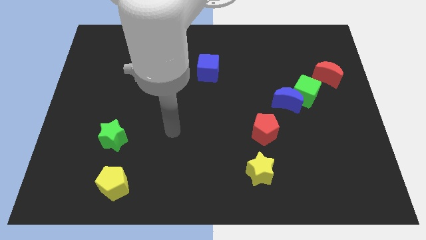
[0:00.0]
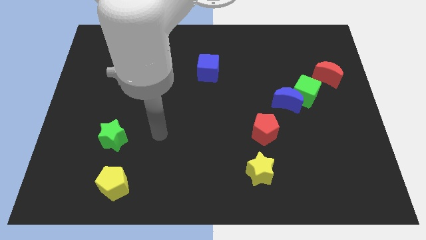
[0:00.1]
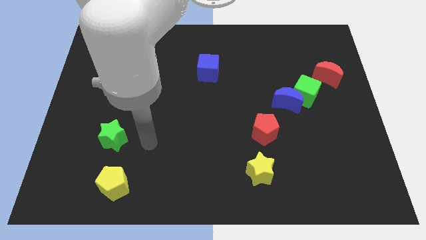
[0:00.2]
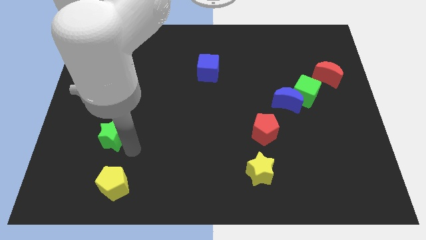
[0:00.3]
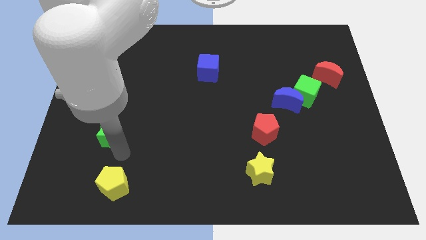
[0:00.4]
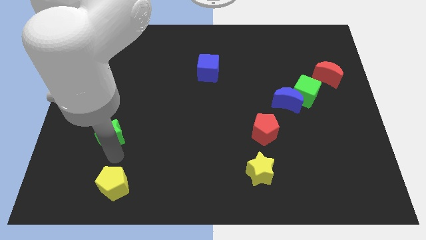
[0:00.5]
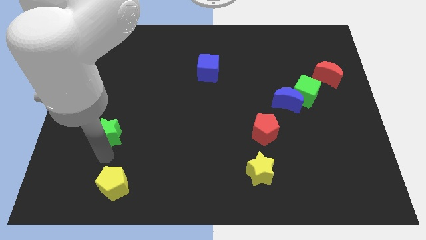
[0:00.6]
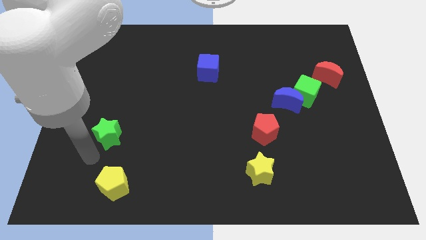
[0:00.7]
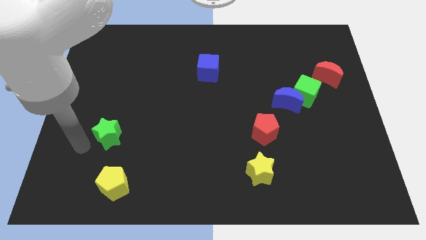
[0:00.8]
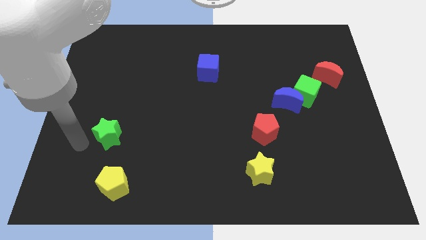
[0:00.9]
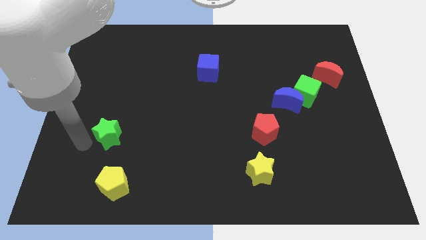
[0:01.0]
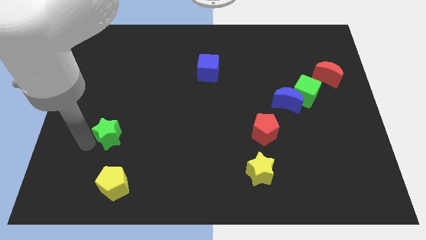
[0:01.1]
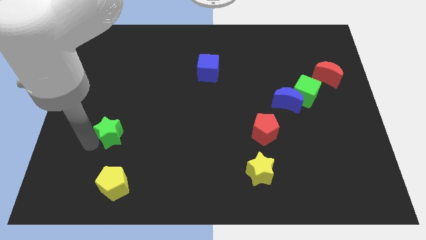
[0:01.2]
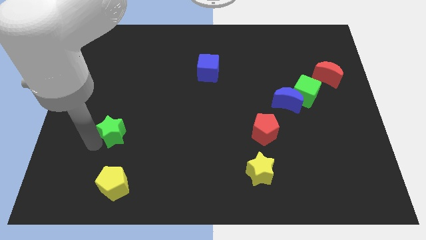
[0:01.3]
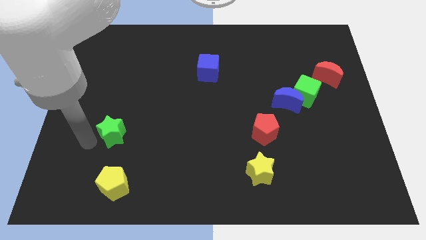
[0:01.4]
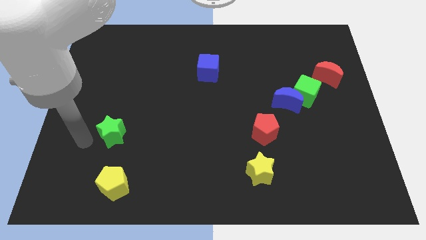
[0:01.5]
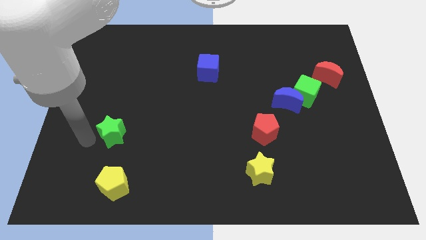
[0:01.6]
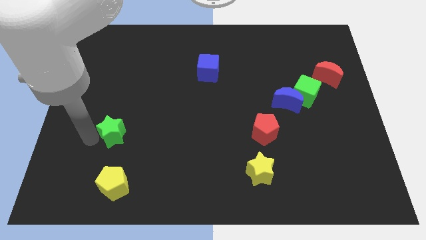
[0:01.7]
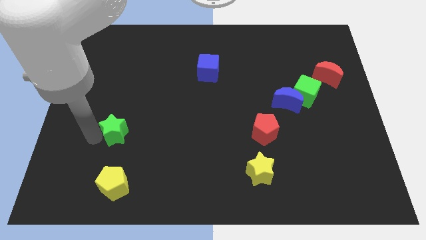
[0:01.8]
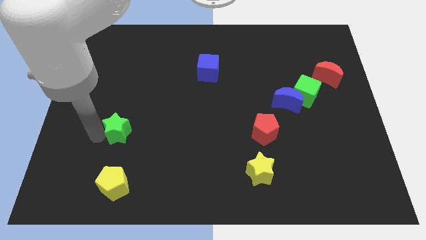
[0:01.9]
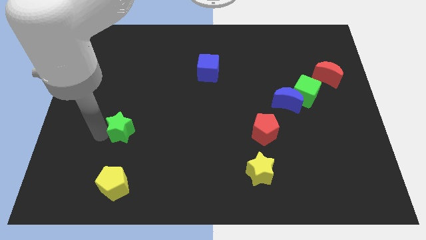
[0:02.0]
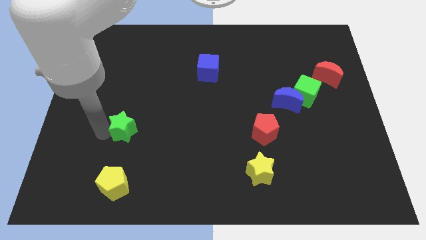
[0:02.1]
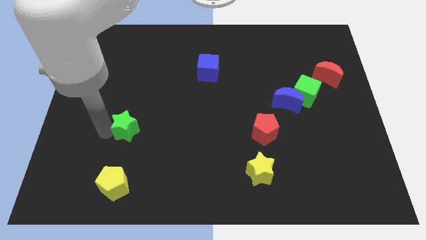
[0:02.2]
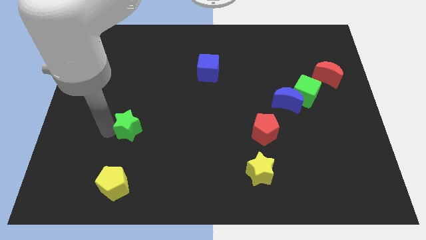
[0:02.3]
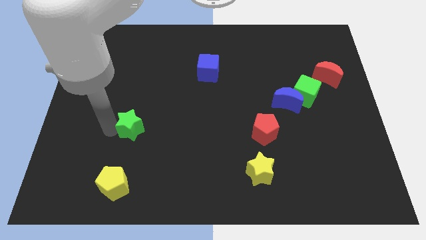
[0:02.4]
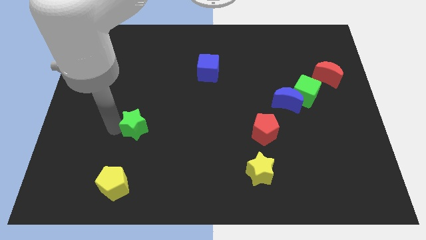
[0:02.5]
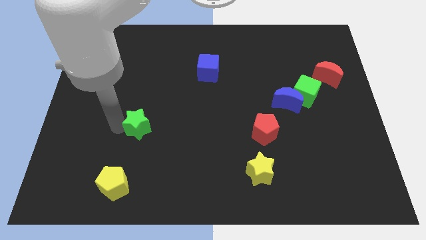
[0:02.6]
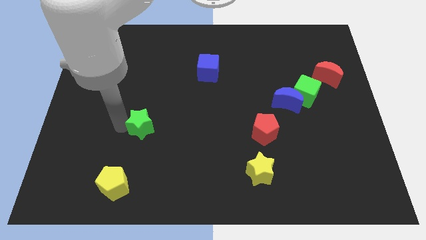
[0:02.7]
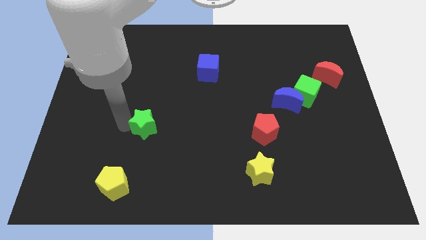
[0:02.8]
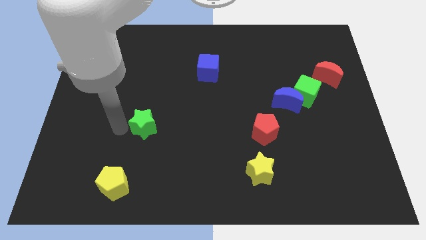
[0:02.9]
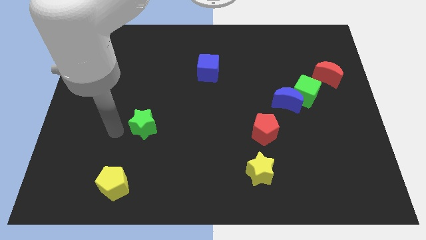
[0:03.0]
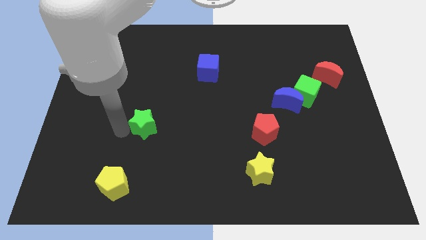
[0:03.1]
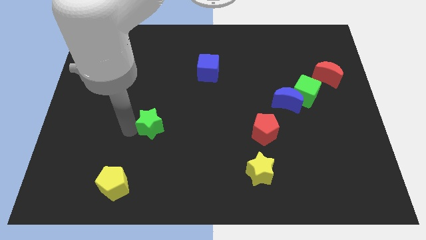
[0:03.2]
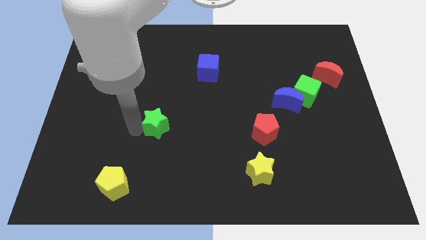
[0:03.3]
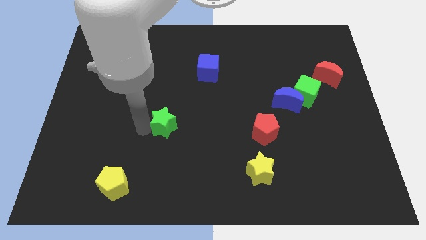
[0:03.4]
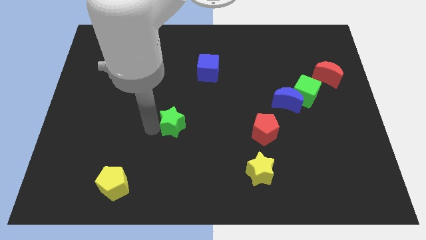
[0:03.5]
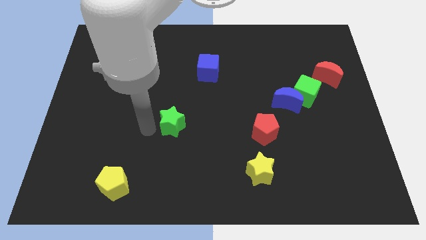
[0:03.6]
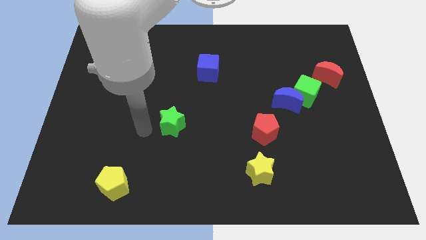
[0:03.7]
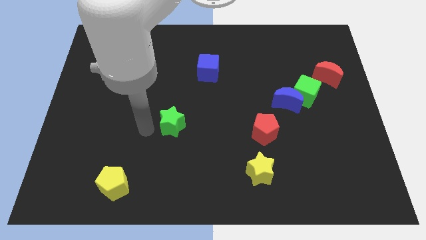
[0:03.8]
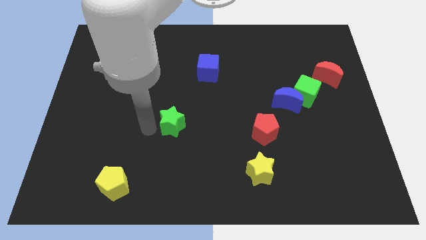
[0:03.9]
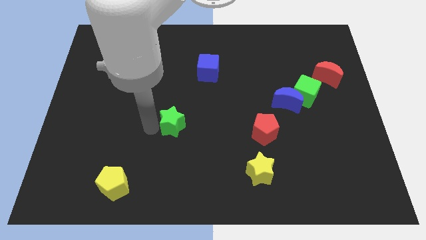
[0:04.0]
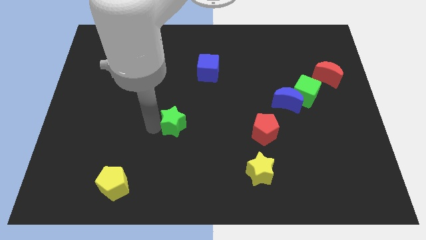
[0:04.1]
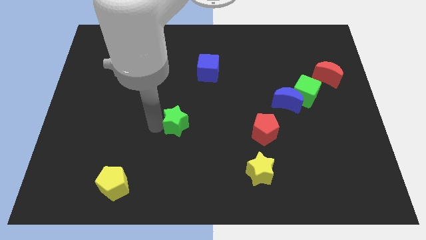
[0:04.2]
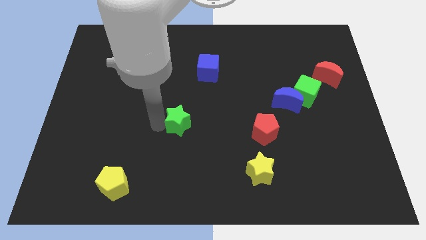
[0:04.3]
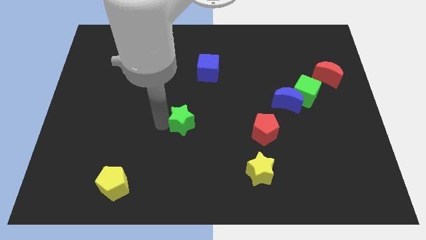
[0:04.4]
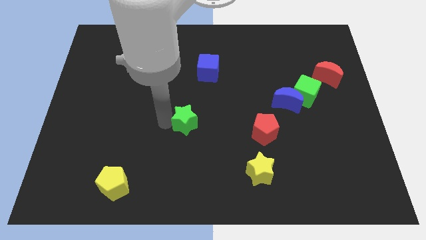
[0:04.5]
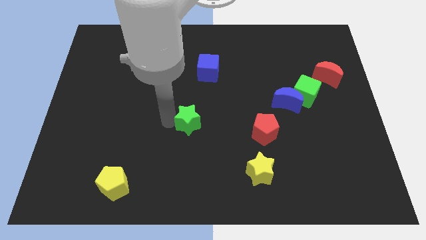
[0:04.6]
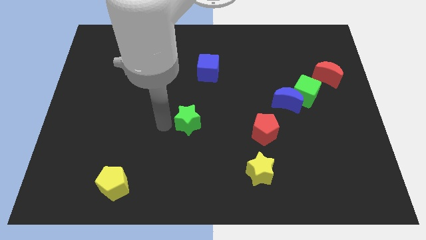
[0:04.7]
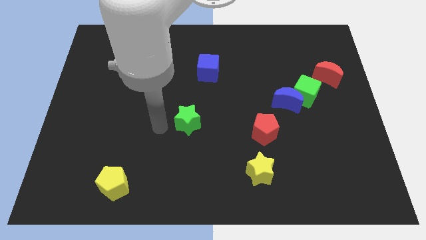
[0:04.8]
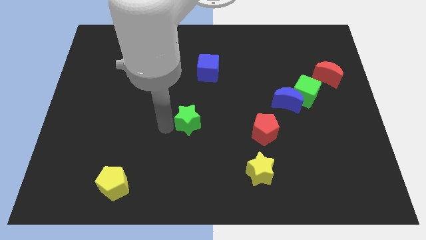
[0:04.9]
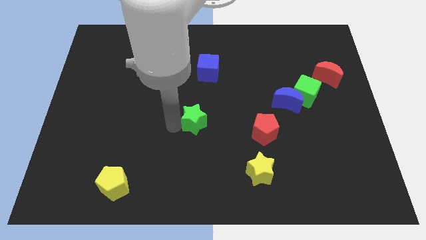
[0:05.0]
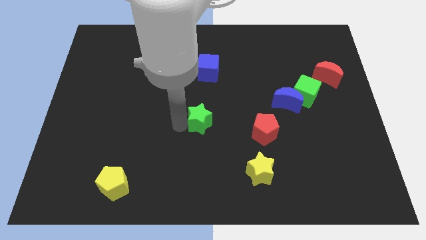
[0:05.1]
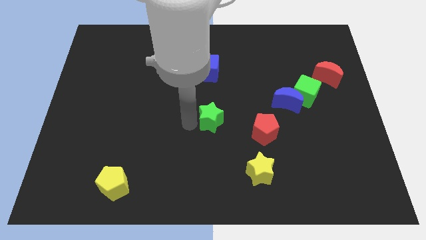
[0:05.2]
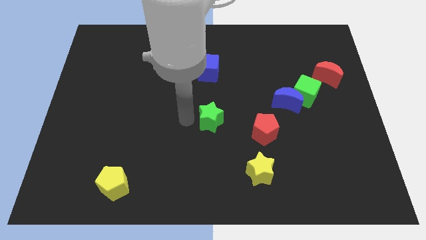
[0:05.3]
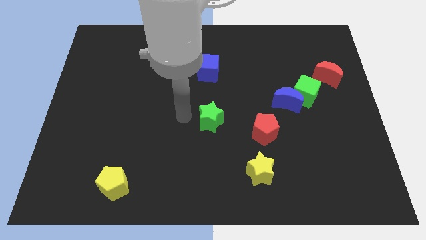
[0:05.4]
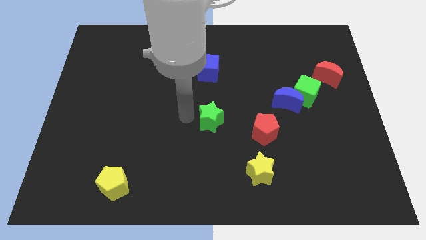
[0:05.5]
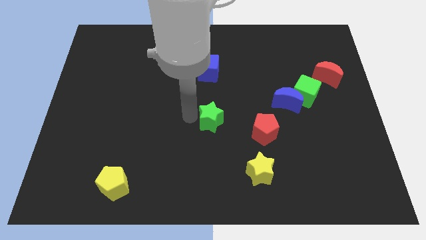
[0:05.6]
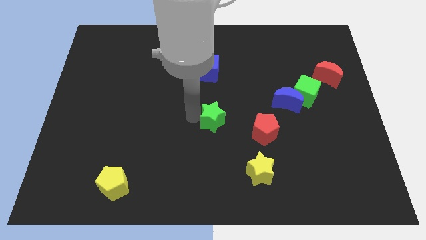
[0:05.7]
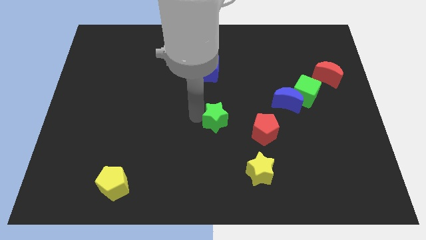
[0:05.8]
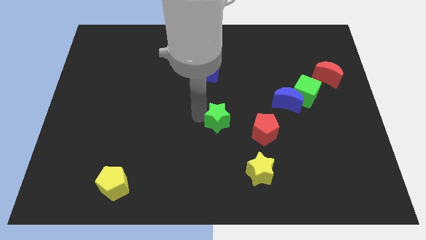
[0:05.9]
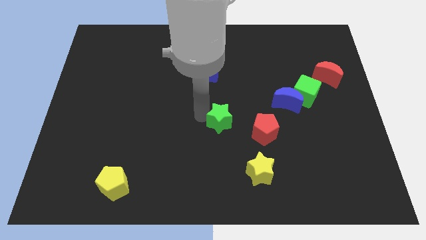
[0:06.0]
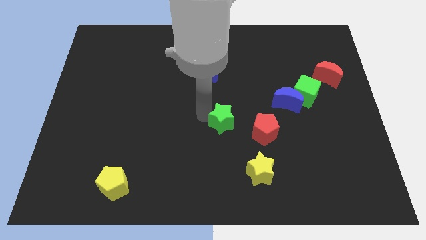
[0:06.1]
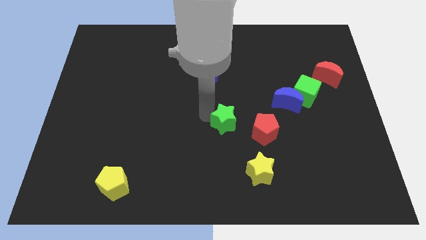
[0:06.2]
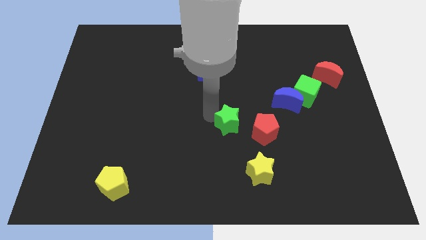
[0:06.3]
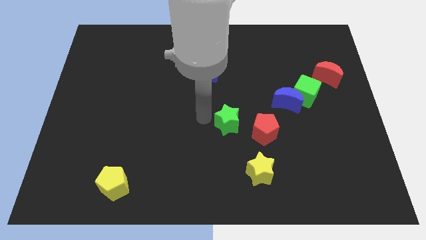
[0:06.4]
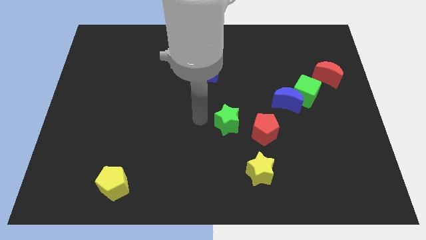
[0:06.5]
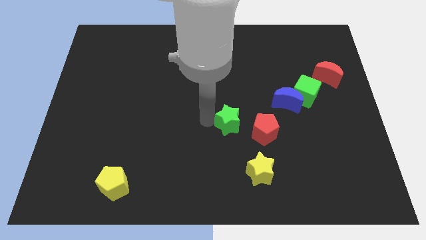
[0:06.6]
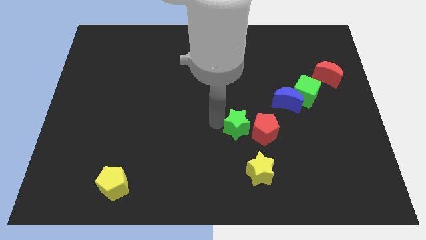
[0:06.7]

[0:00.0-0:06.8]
slide the green star towards the red pentagon

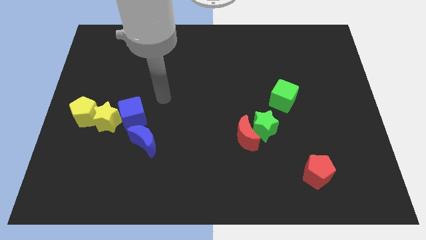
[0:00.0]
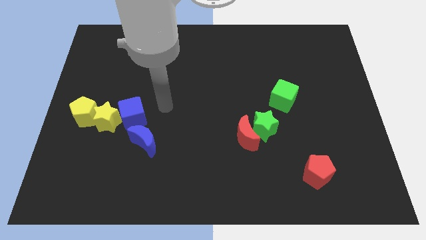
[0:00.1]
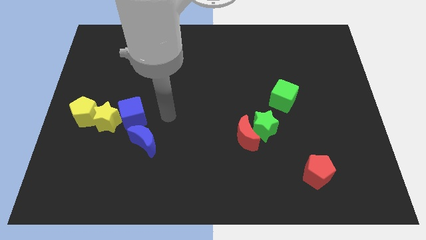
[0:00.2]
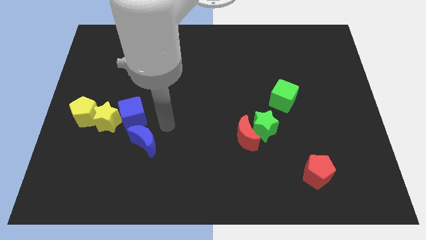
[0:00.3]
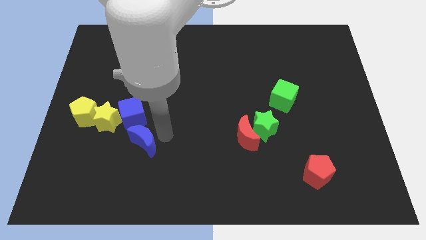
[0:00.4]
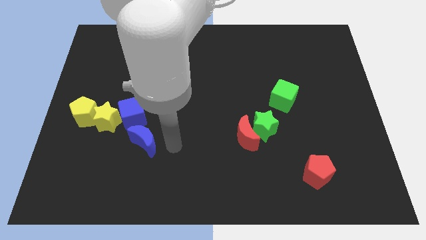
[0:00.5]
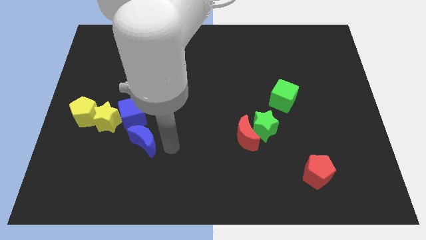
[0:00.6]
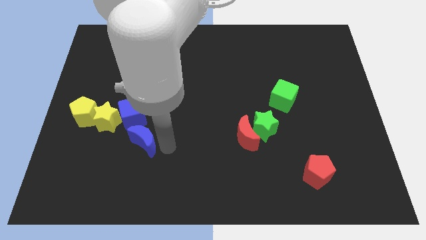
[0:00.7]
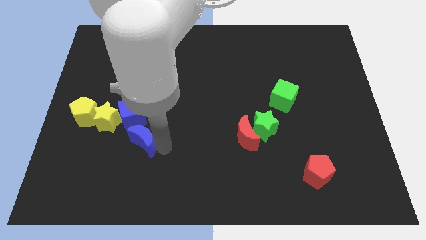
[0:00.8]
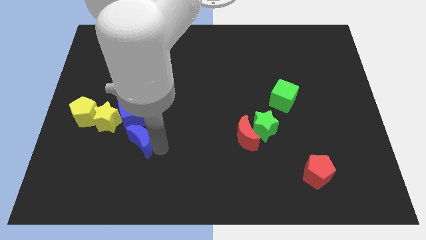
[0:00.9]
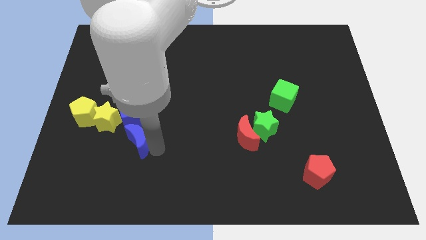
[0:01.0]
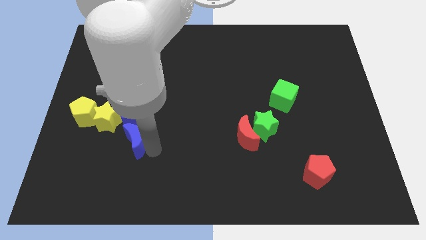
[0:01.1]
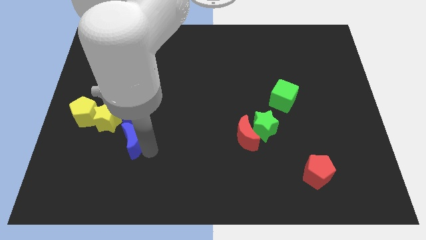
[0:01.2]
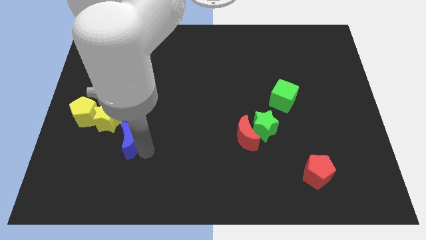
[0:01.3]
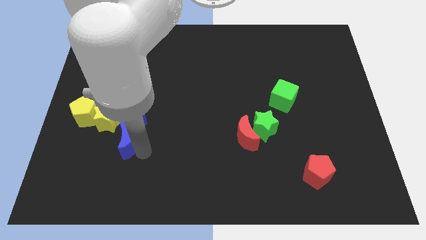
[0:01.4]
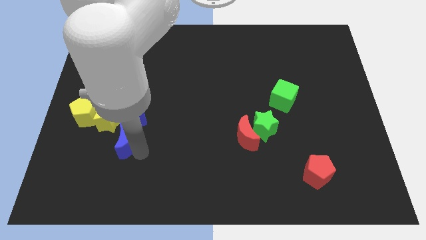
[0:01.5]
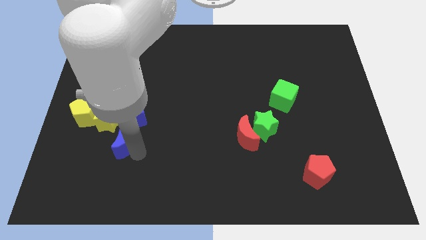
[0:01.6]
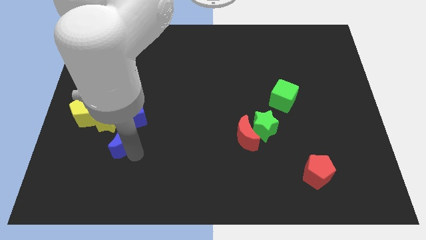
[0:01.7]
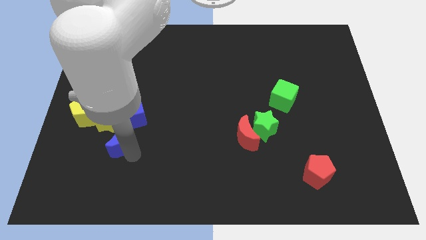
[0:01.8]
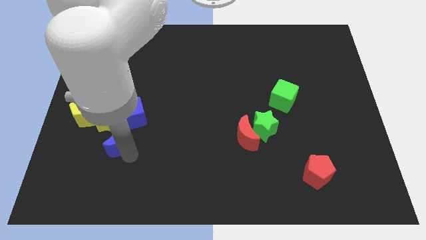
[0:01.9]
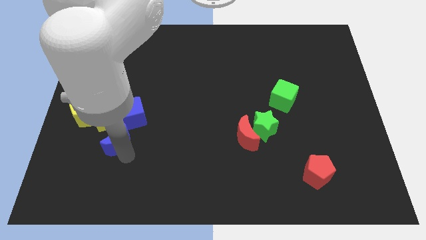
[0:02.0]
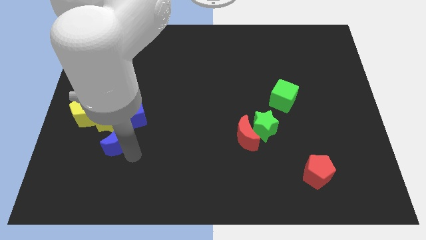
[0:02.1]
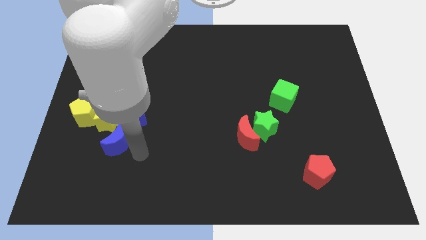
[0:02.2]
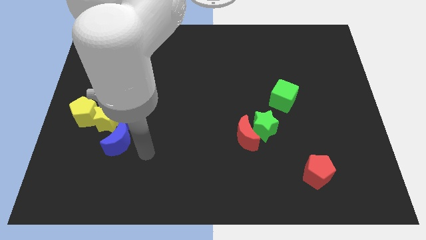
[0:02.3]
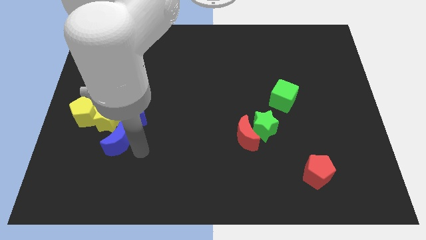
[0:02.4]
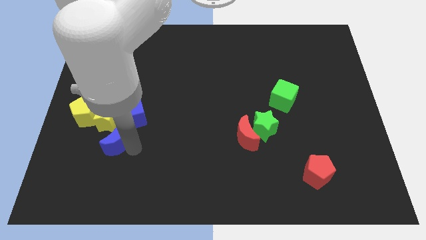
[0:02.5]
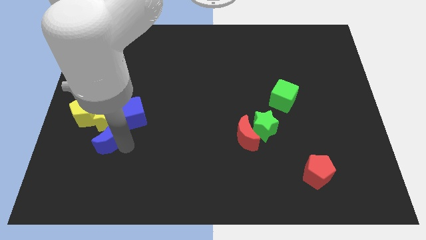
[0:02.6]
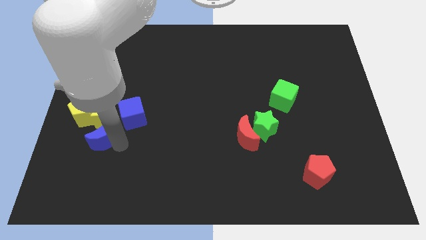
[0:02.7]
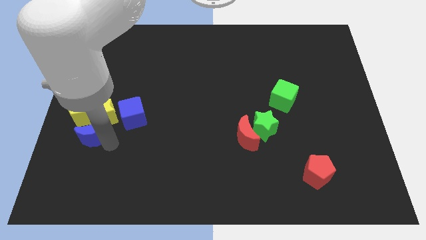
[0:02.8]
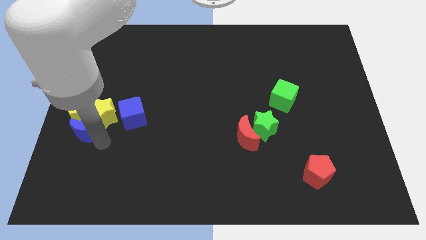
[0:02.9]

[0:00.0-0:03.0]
move the blue moon to the yellow pentagon
